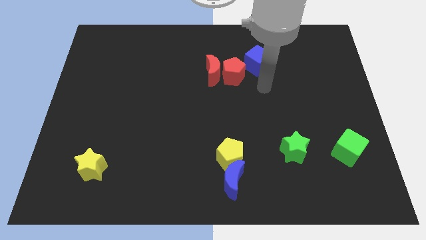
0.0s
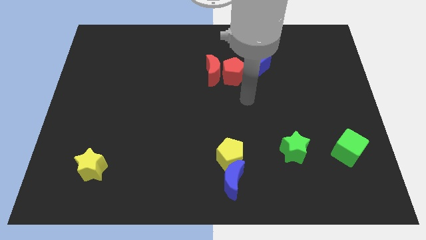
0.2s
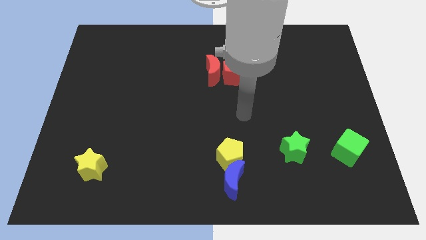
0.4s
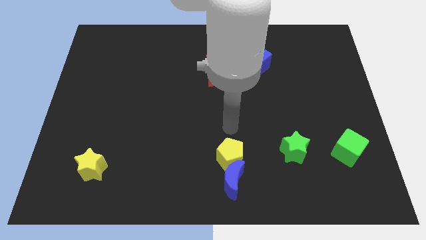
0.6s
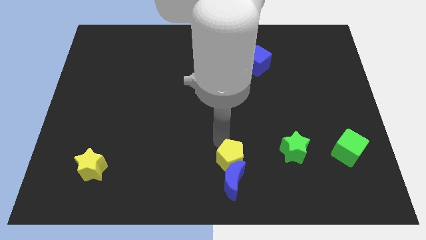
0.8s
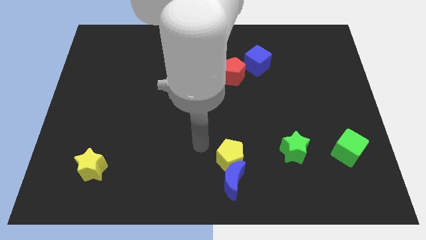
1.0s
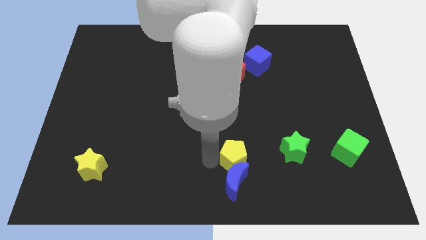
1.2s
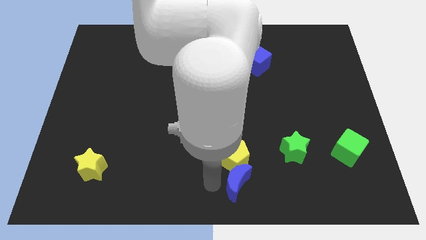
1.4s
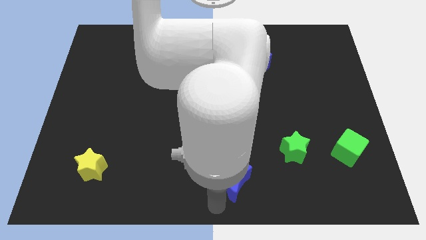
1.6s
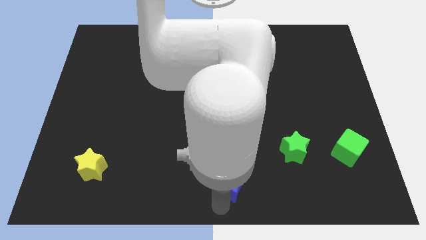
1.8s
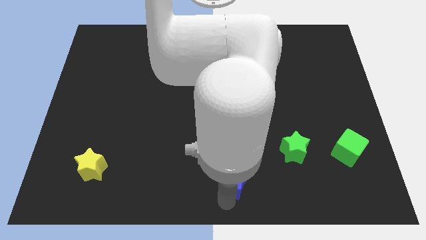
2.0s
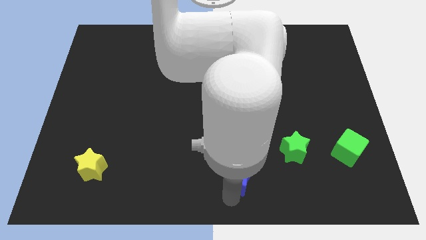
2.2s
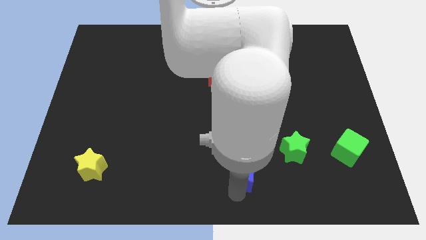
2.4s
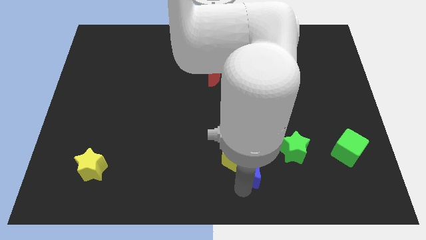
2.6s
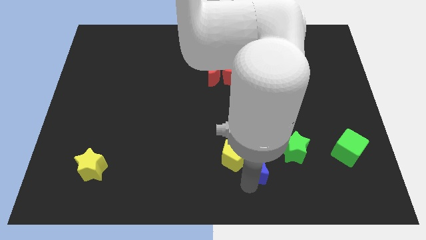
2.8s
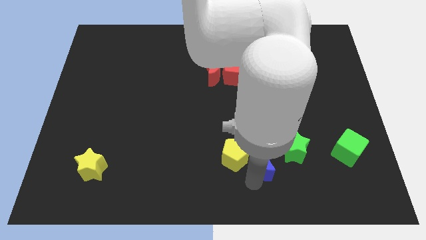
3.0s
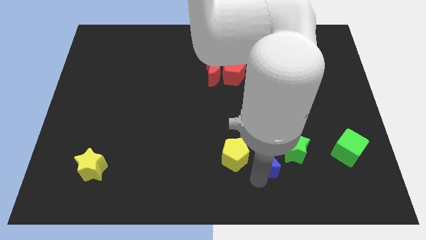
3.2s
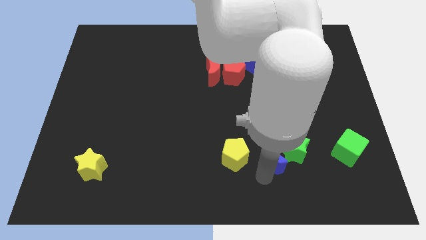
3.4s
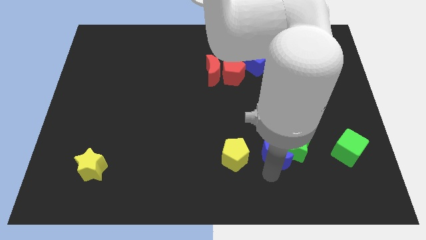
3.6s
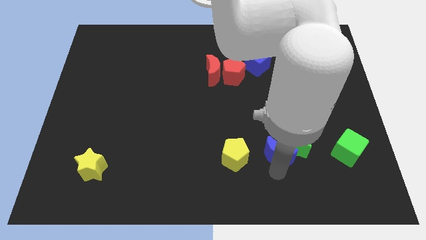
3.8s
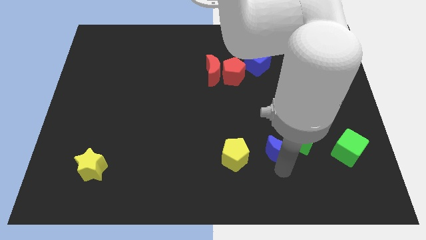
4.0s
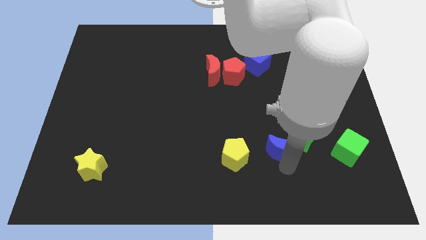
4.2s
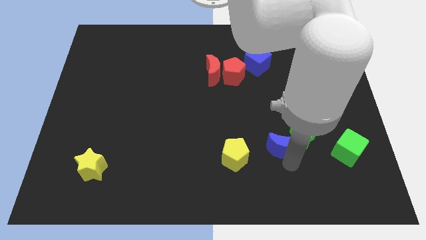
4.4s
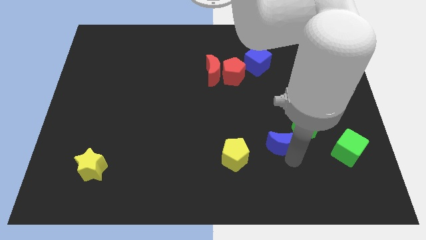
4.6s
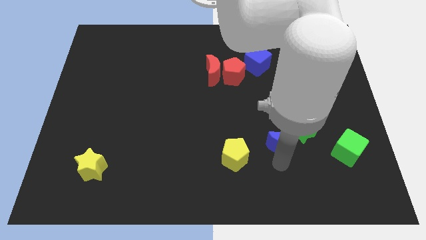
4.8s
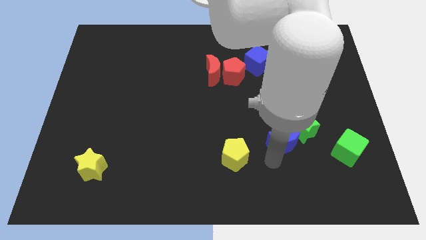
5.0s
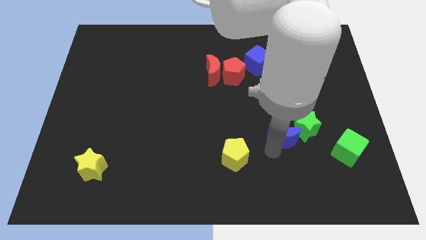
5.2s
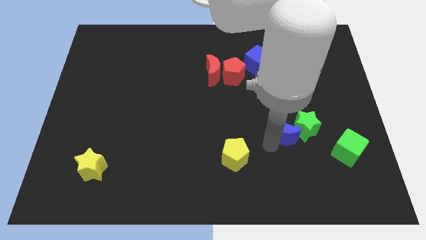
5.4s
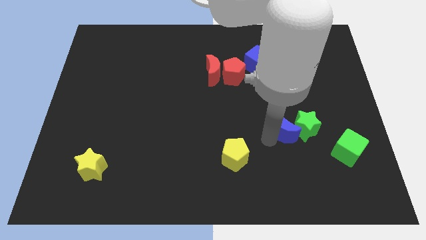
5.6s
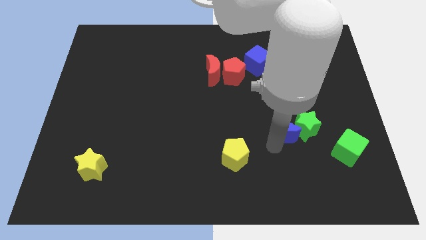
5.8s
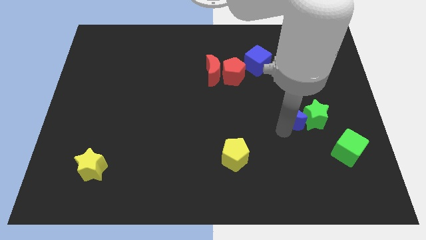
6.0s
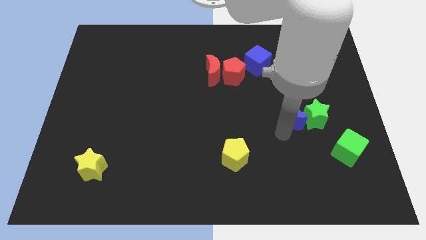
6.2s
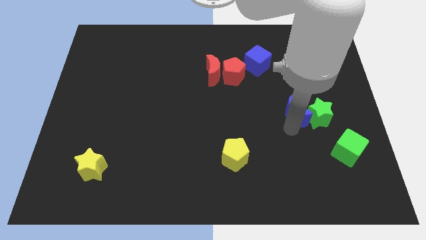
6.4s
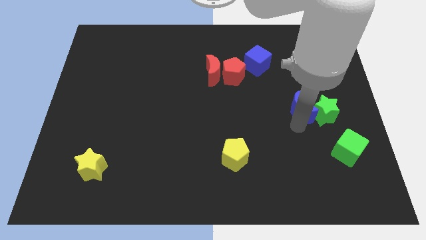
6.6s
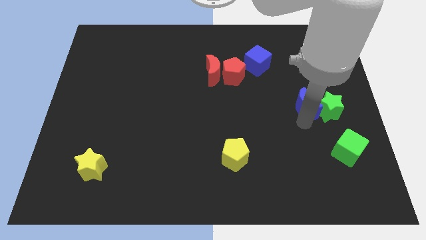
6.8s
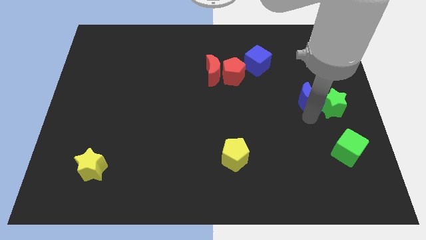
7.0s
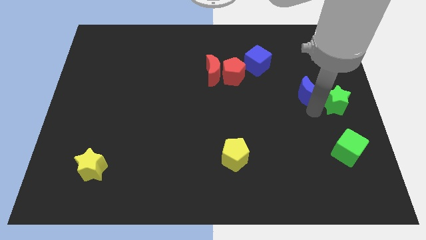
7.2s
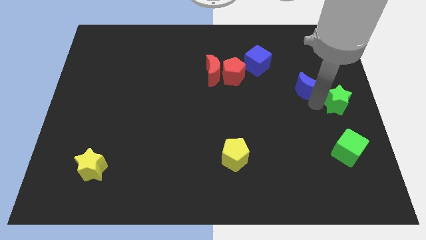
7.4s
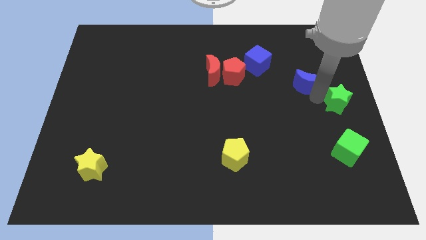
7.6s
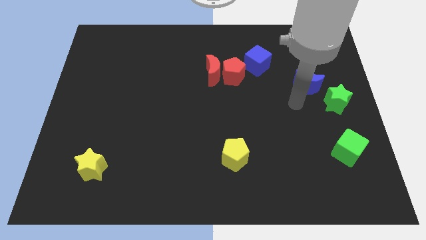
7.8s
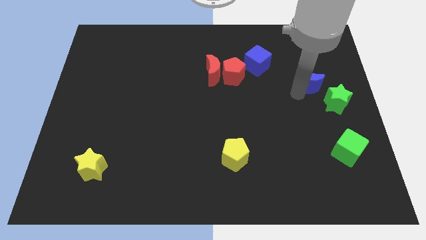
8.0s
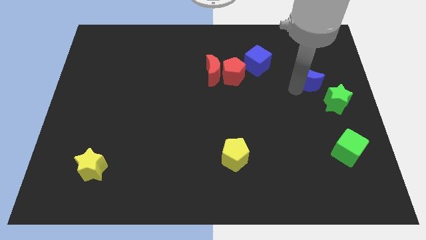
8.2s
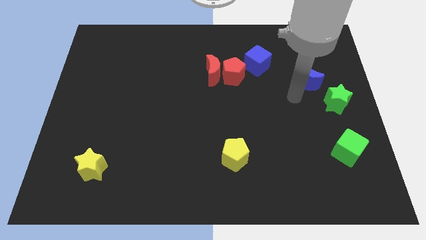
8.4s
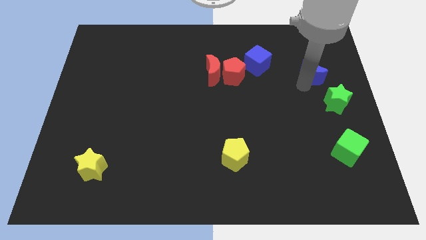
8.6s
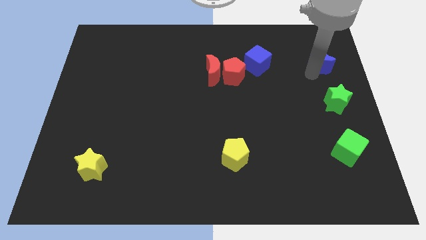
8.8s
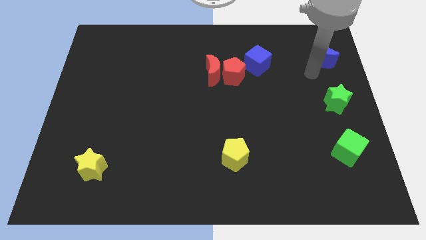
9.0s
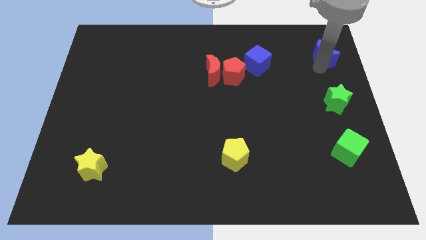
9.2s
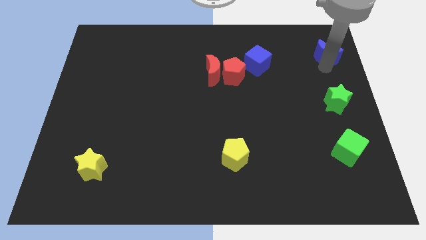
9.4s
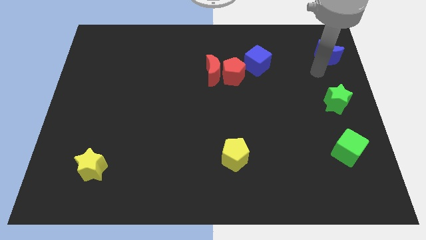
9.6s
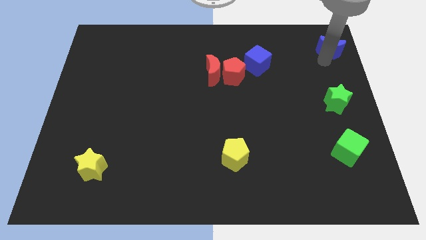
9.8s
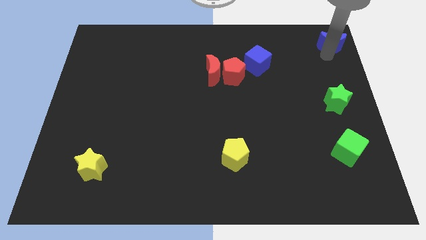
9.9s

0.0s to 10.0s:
push the blue moon to the upper right corner

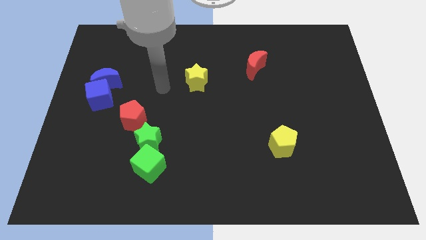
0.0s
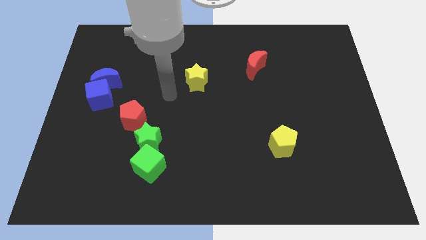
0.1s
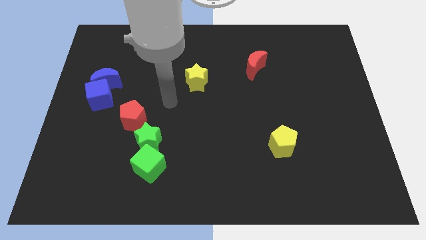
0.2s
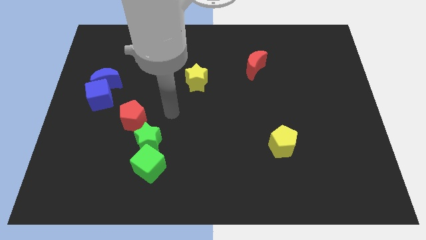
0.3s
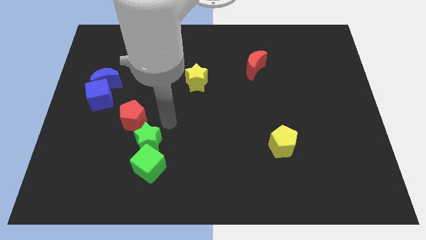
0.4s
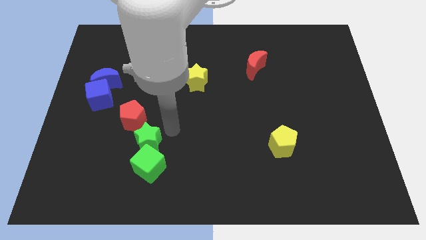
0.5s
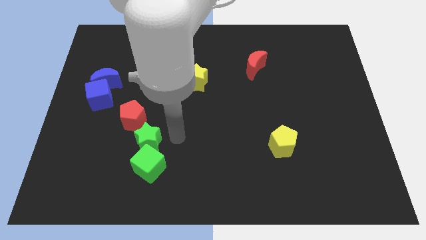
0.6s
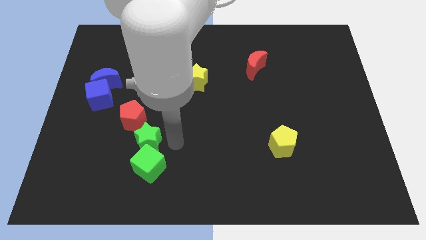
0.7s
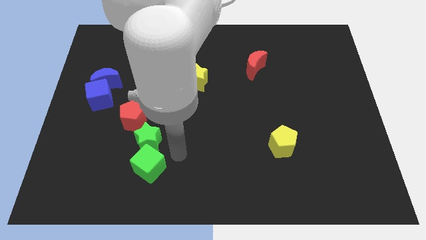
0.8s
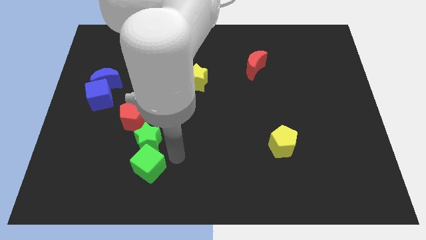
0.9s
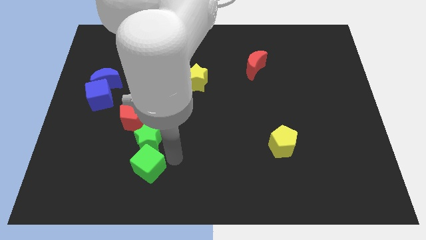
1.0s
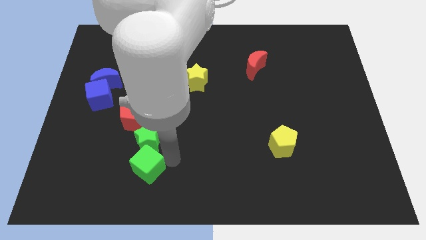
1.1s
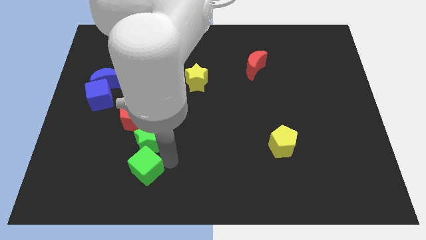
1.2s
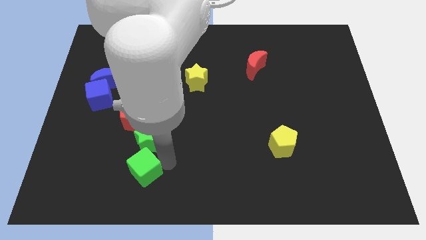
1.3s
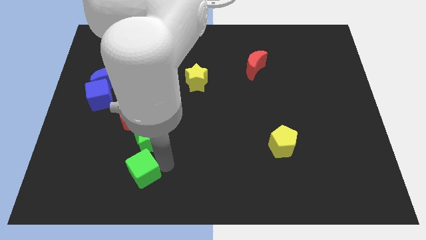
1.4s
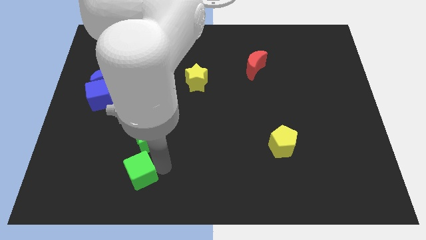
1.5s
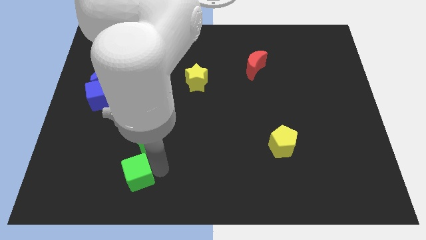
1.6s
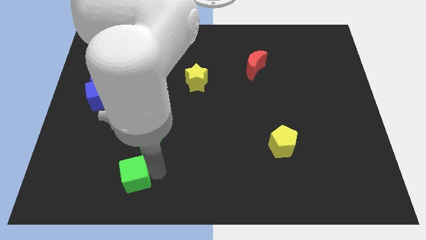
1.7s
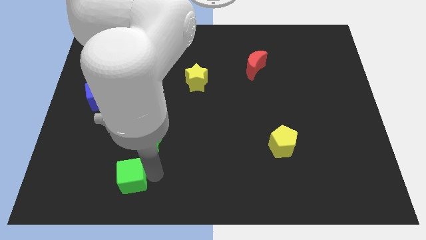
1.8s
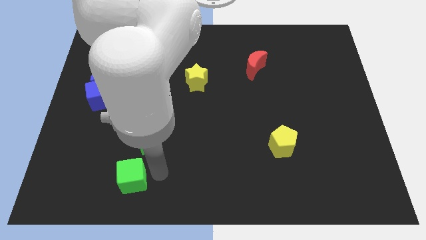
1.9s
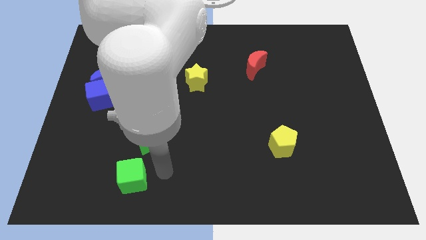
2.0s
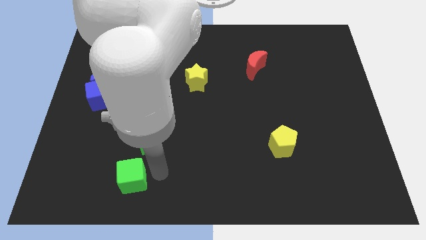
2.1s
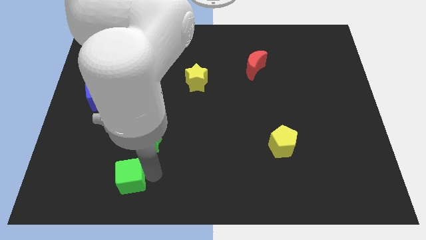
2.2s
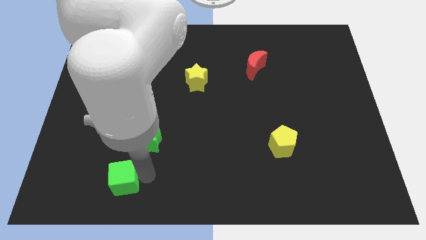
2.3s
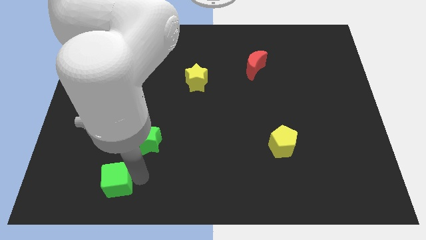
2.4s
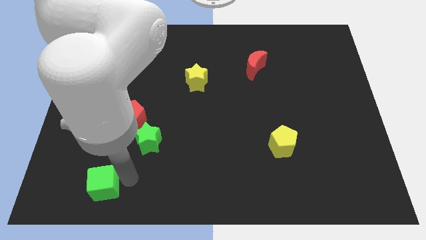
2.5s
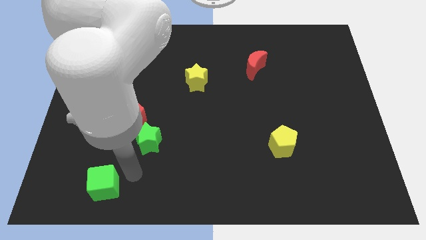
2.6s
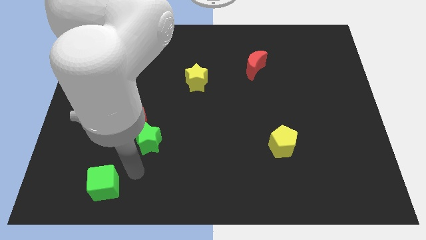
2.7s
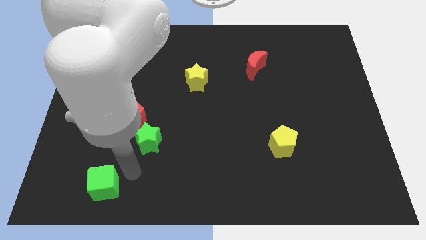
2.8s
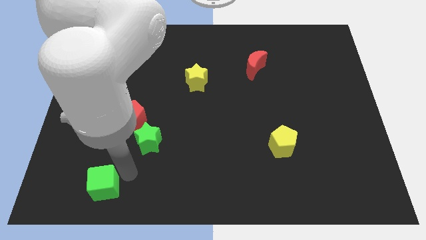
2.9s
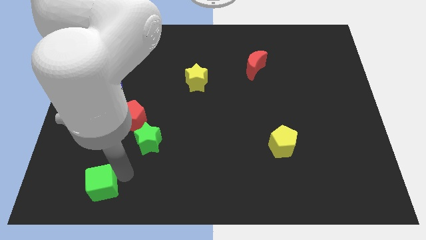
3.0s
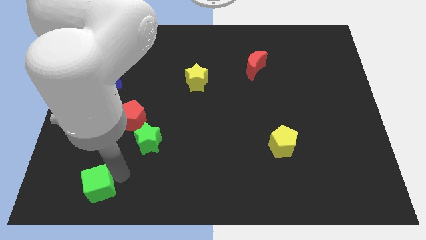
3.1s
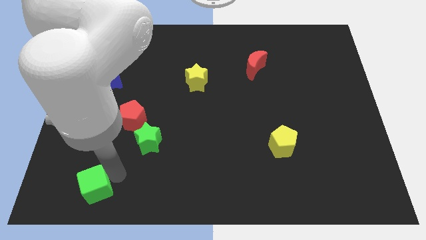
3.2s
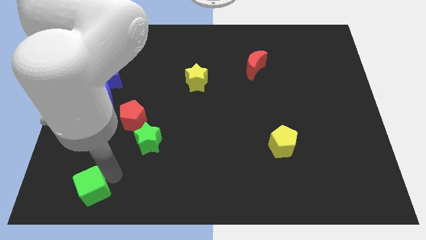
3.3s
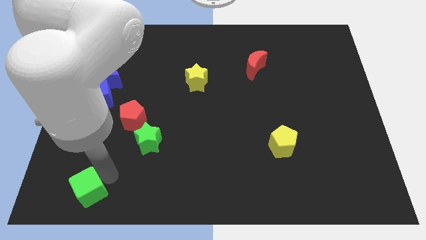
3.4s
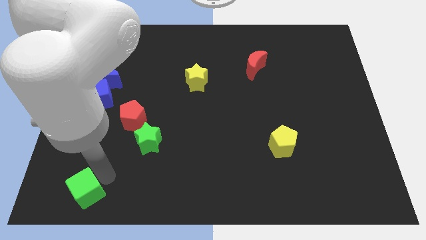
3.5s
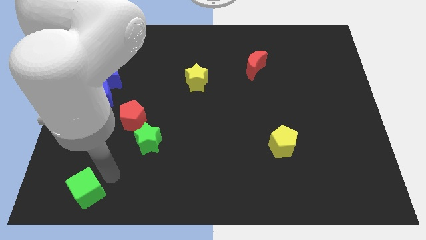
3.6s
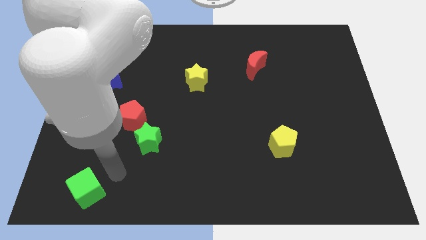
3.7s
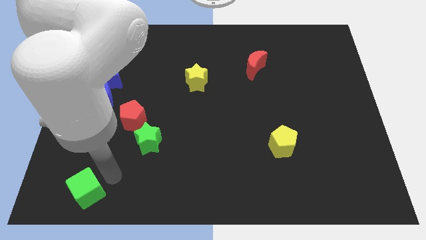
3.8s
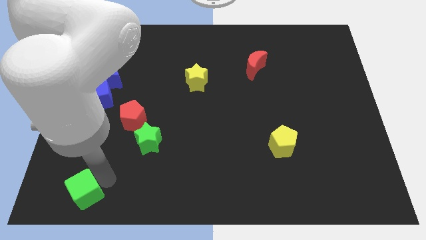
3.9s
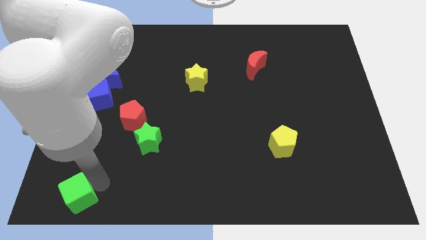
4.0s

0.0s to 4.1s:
move the green cube to the bottom left corner
